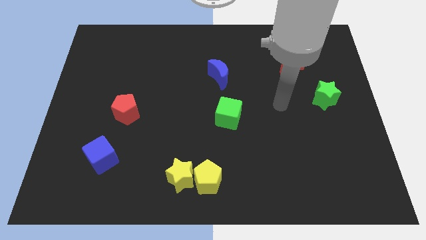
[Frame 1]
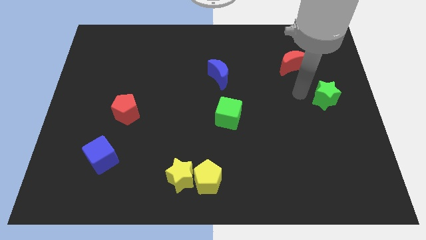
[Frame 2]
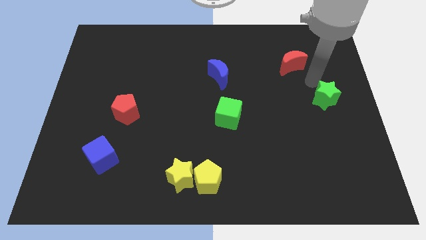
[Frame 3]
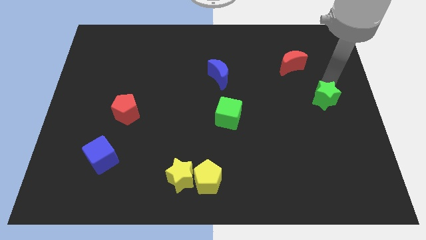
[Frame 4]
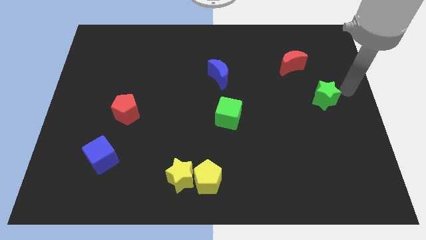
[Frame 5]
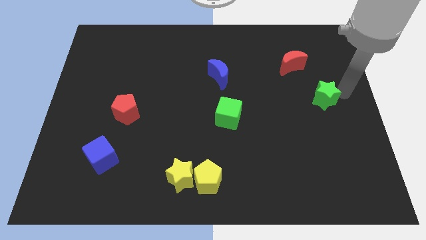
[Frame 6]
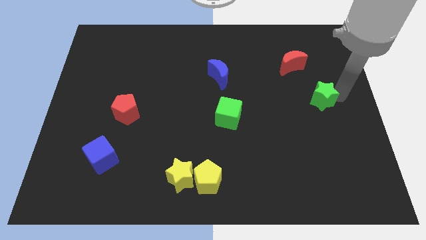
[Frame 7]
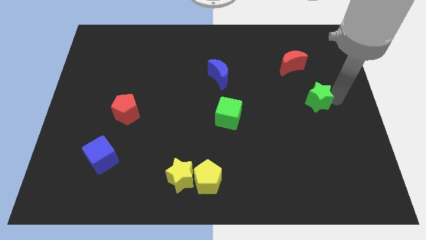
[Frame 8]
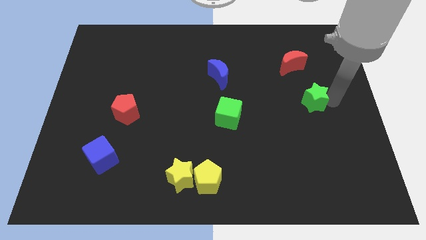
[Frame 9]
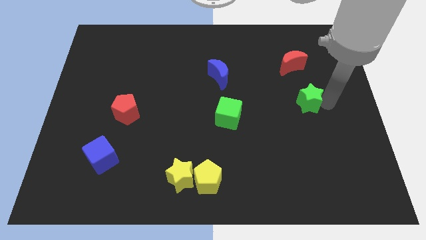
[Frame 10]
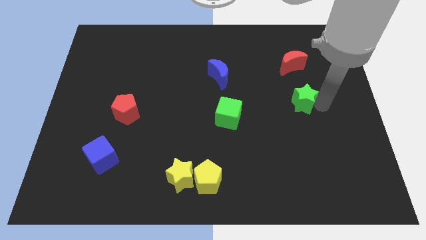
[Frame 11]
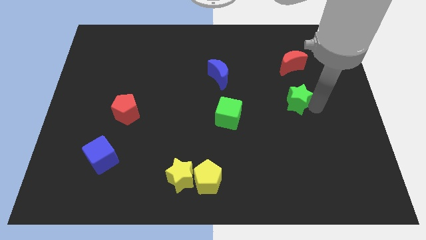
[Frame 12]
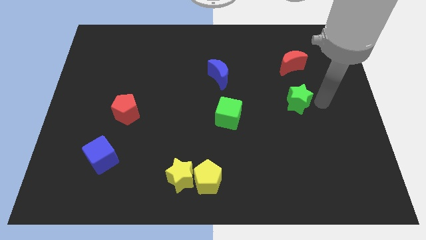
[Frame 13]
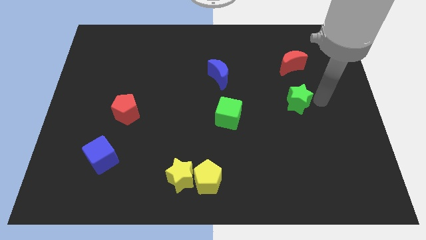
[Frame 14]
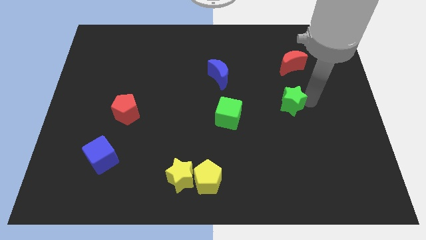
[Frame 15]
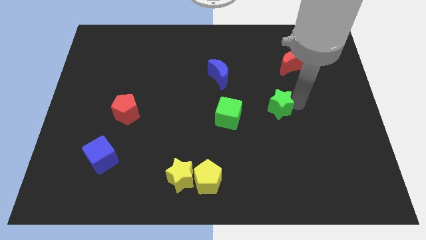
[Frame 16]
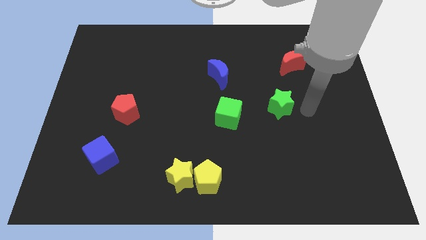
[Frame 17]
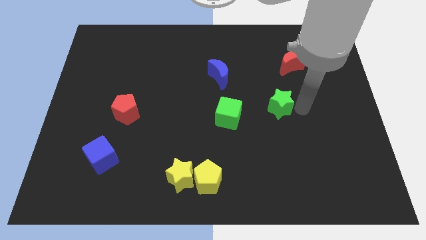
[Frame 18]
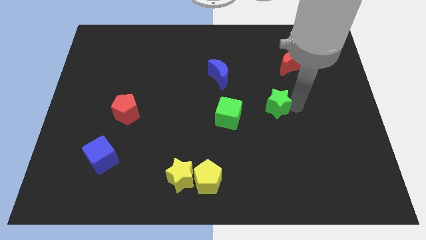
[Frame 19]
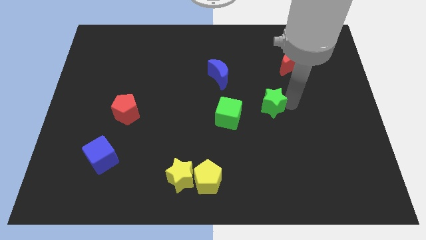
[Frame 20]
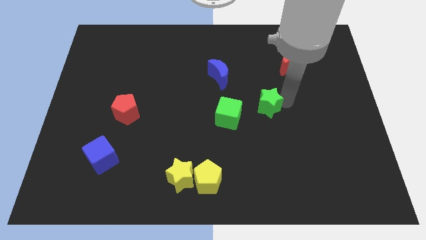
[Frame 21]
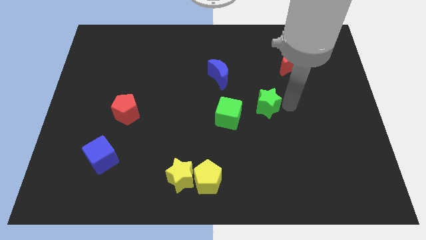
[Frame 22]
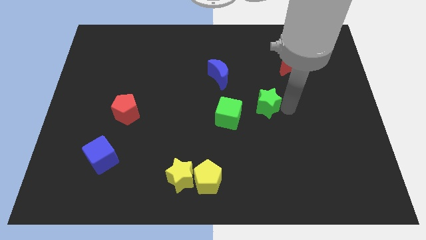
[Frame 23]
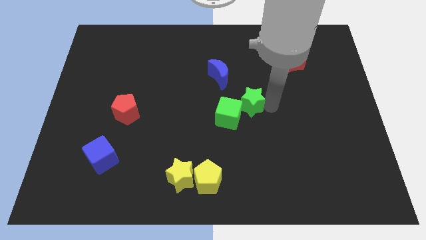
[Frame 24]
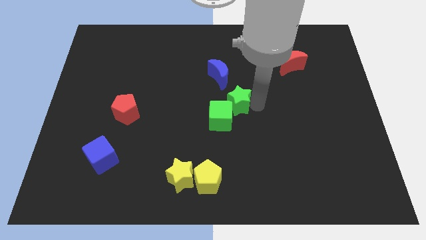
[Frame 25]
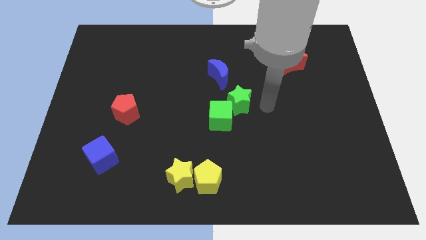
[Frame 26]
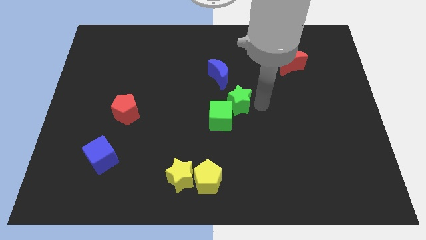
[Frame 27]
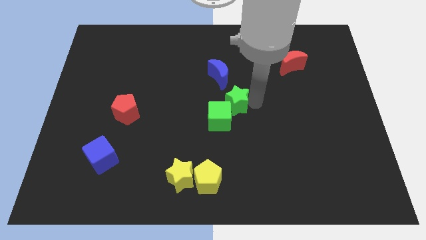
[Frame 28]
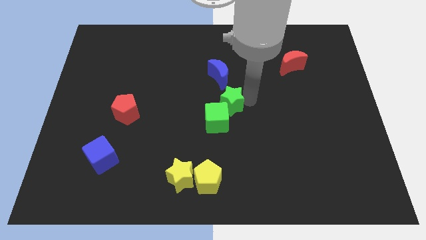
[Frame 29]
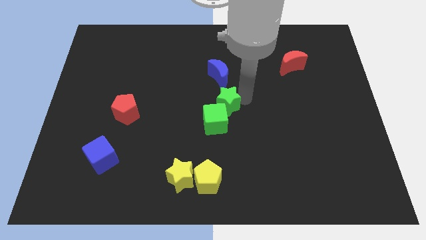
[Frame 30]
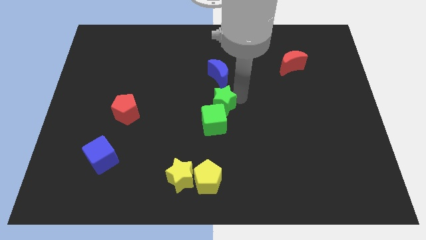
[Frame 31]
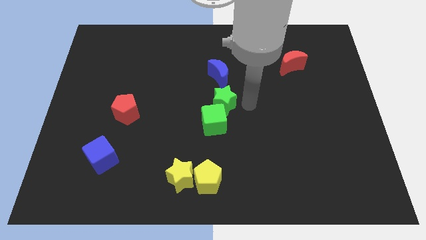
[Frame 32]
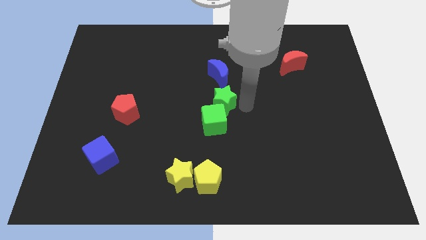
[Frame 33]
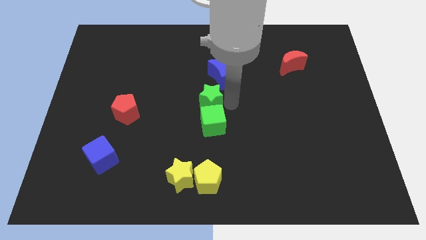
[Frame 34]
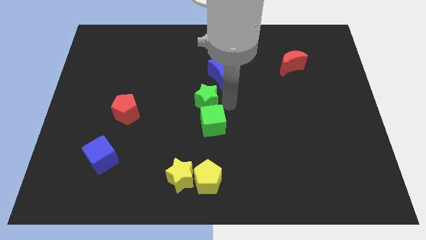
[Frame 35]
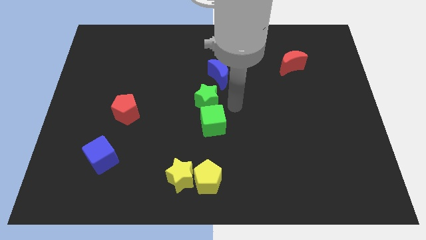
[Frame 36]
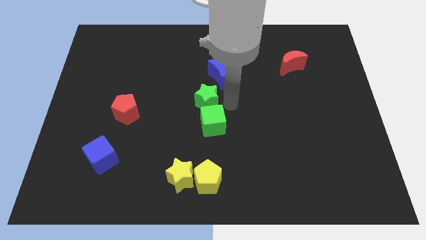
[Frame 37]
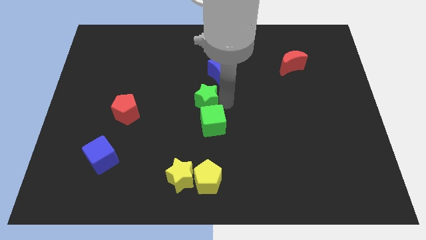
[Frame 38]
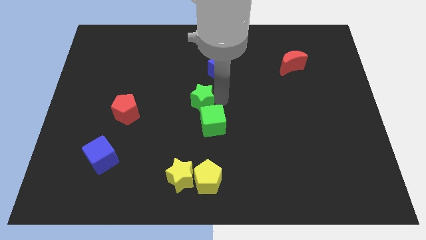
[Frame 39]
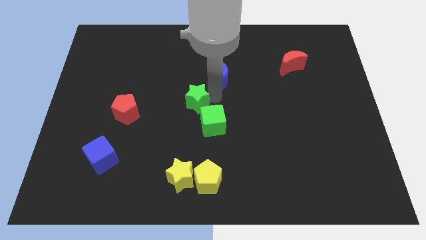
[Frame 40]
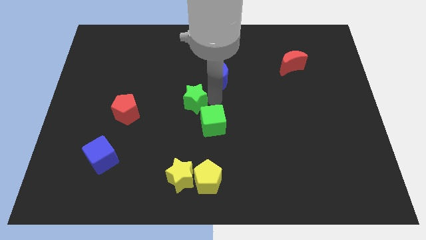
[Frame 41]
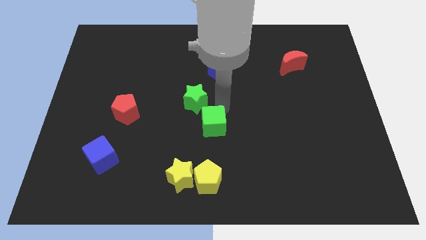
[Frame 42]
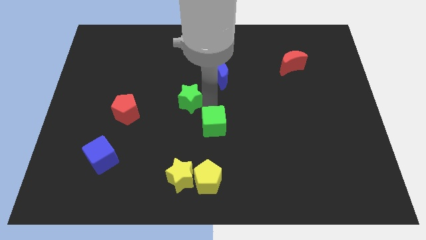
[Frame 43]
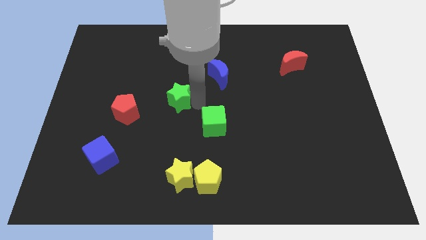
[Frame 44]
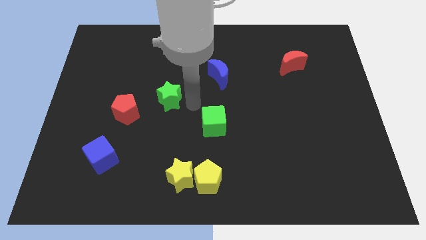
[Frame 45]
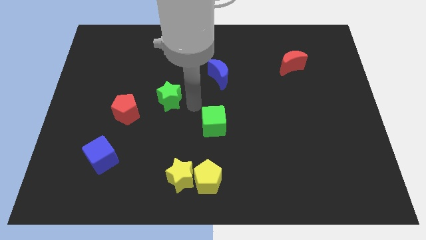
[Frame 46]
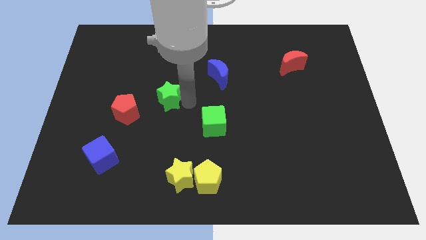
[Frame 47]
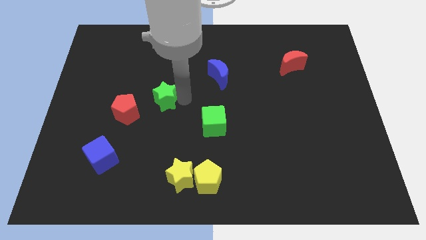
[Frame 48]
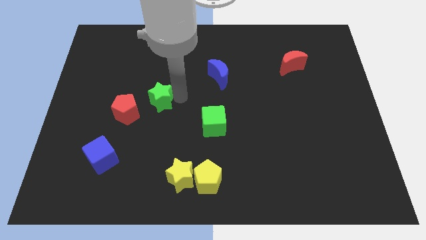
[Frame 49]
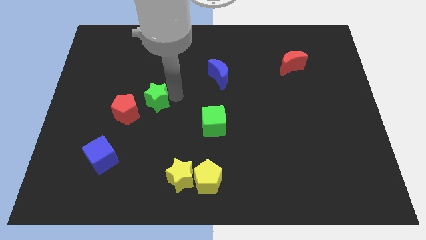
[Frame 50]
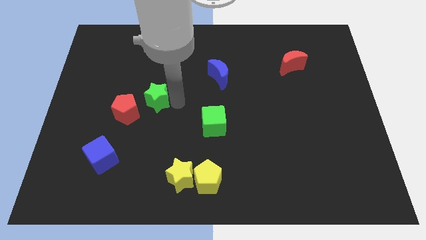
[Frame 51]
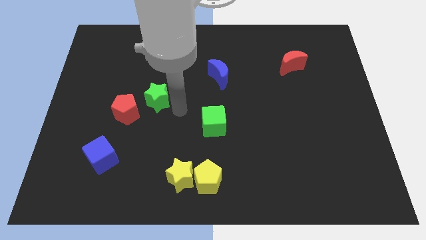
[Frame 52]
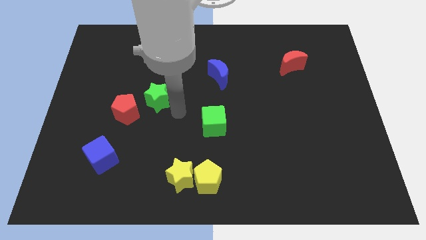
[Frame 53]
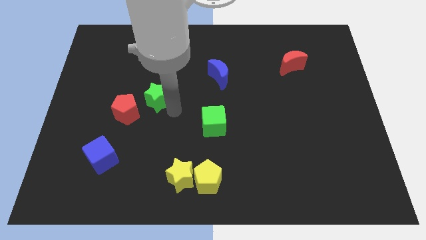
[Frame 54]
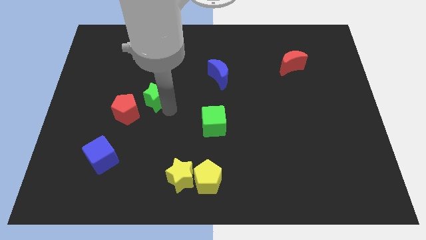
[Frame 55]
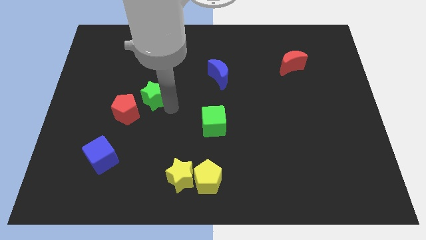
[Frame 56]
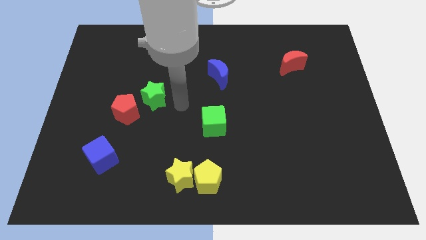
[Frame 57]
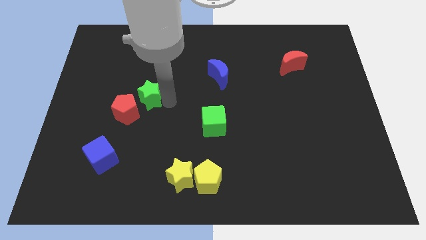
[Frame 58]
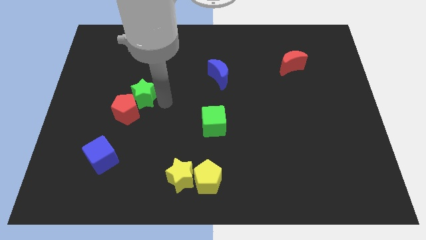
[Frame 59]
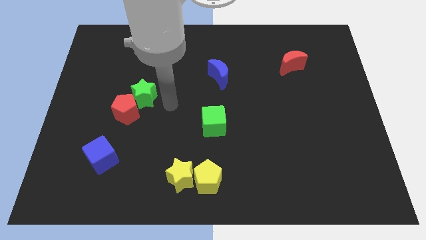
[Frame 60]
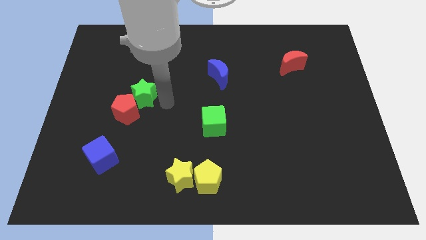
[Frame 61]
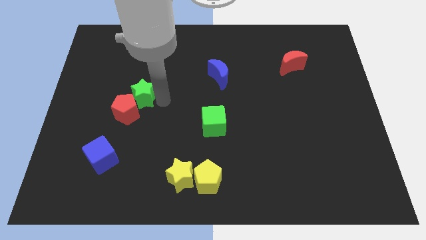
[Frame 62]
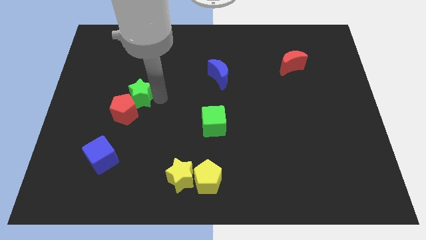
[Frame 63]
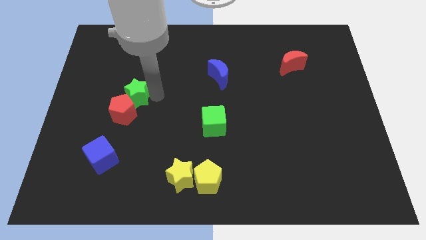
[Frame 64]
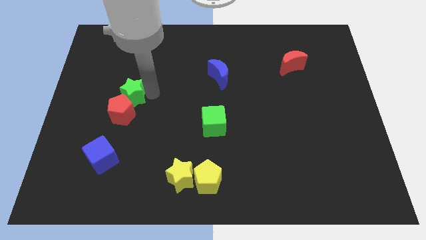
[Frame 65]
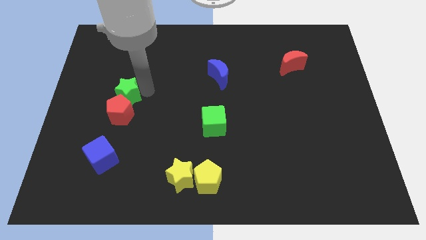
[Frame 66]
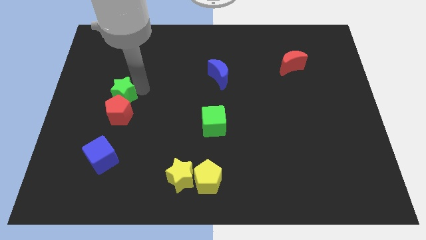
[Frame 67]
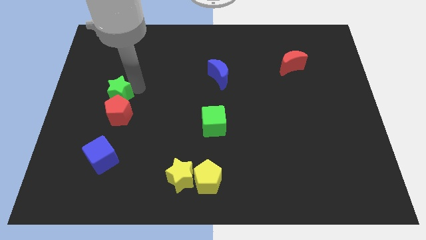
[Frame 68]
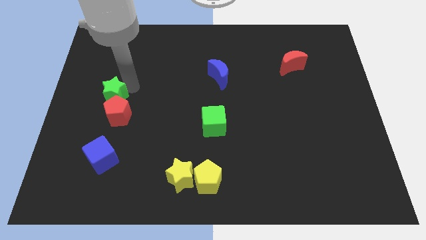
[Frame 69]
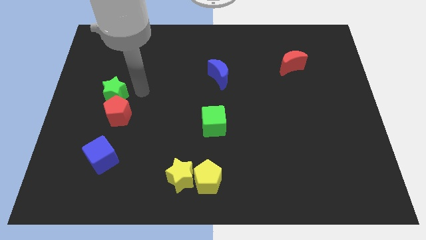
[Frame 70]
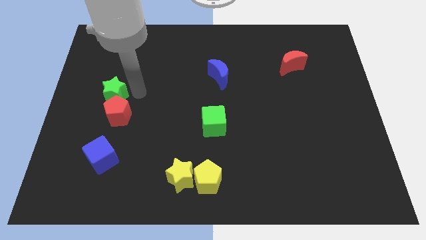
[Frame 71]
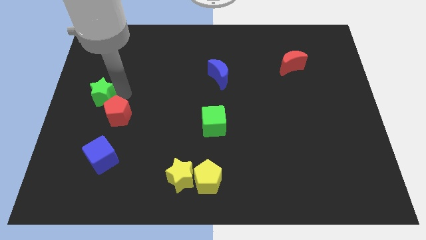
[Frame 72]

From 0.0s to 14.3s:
push the green star to the center left
